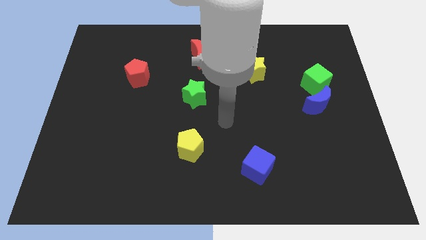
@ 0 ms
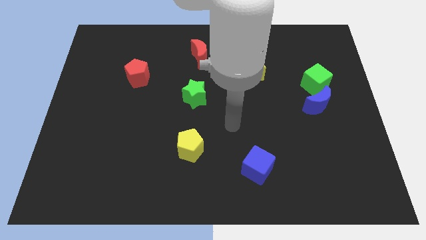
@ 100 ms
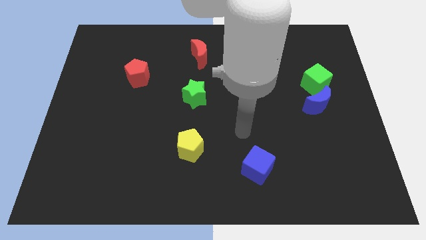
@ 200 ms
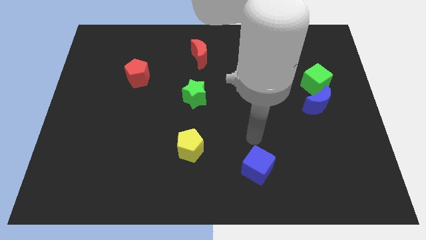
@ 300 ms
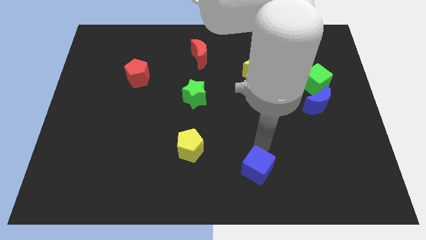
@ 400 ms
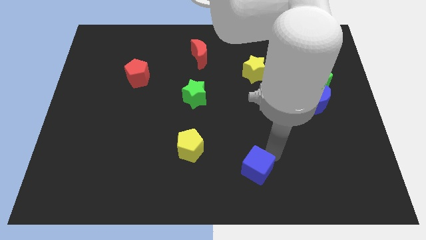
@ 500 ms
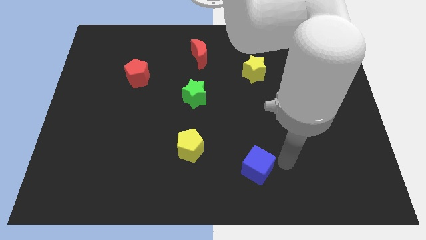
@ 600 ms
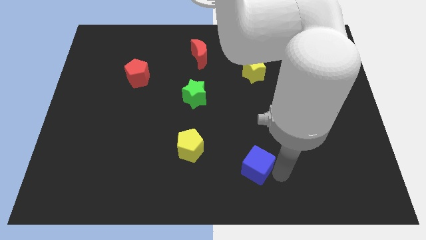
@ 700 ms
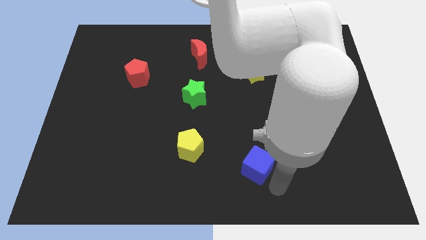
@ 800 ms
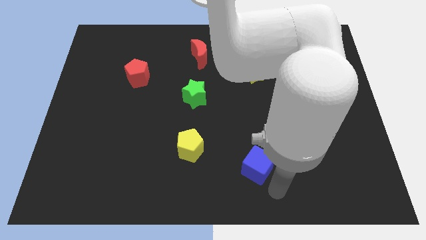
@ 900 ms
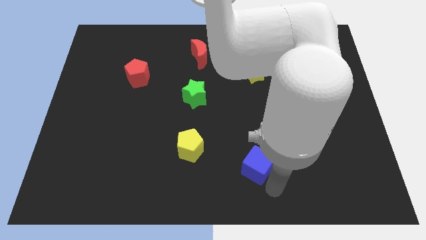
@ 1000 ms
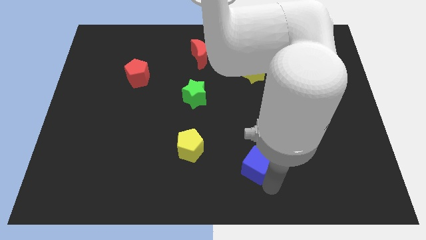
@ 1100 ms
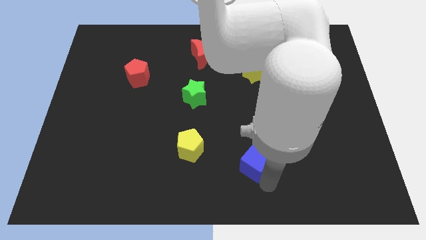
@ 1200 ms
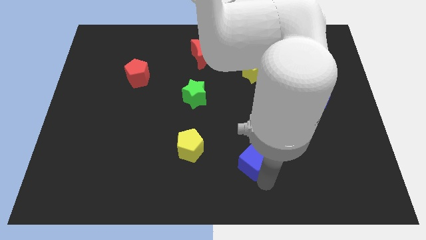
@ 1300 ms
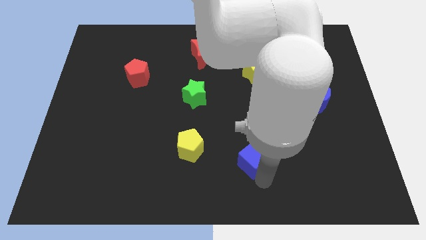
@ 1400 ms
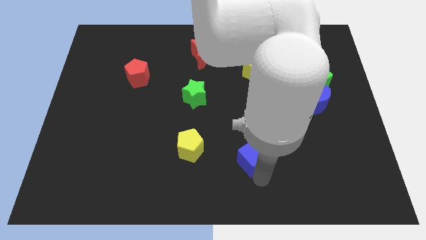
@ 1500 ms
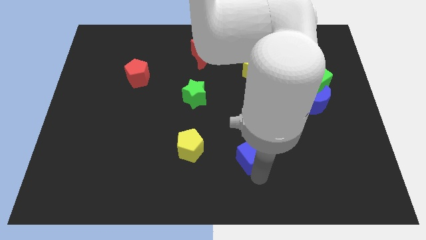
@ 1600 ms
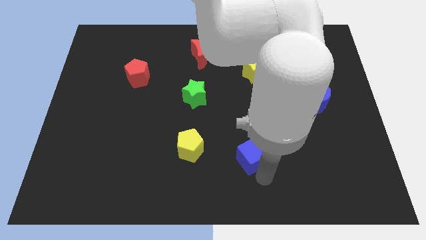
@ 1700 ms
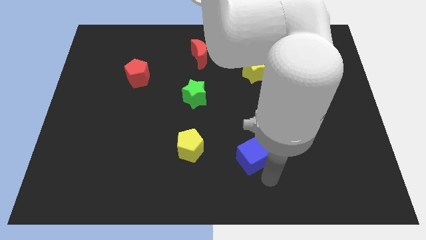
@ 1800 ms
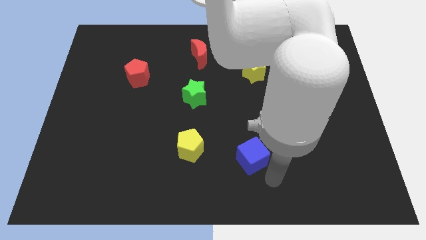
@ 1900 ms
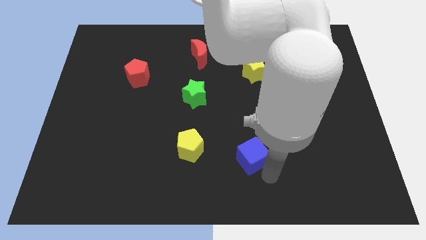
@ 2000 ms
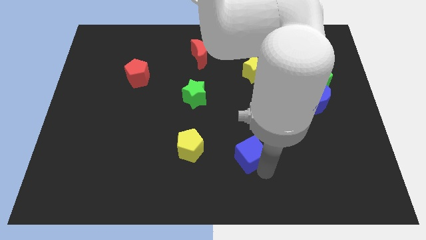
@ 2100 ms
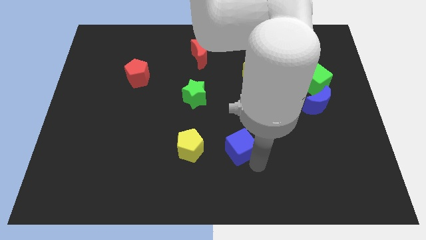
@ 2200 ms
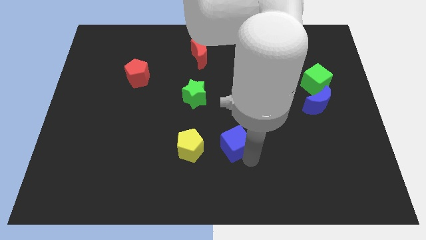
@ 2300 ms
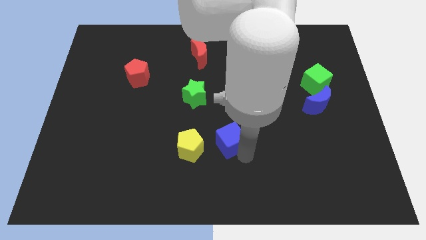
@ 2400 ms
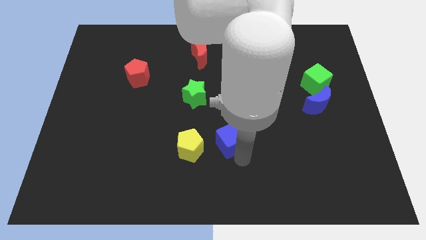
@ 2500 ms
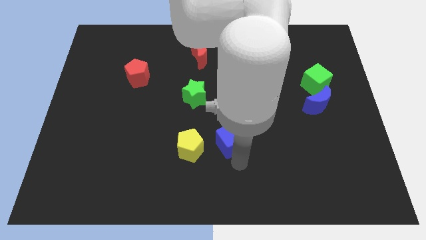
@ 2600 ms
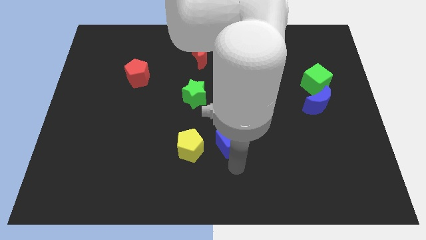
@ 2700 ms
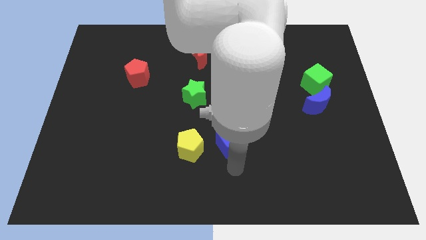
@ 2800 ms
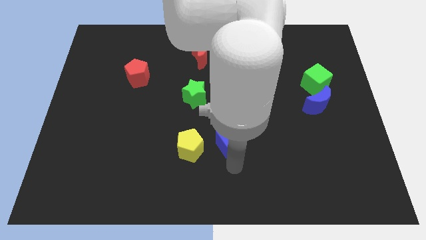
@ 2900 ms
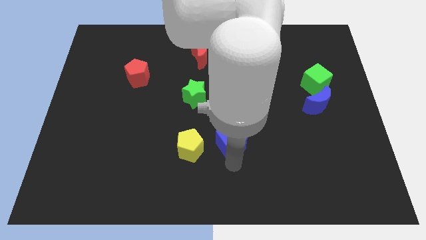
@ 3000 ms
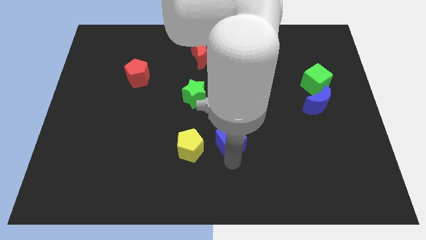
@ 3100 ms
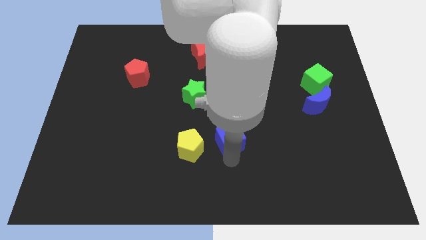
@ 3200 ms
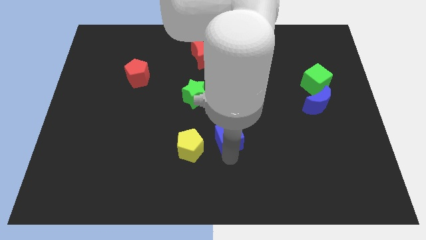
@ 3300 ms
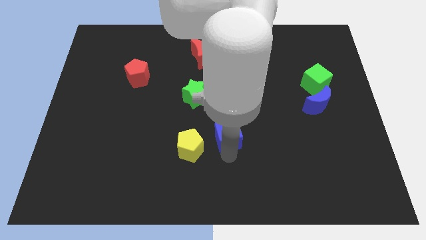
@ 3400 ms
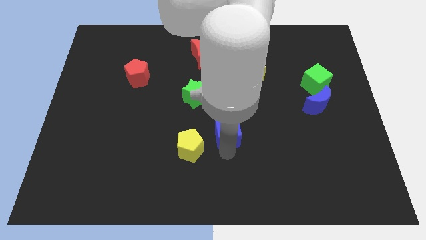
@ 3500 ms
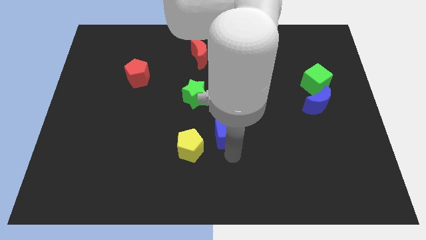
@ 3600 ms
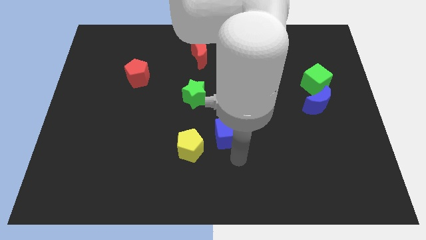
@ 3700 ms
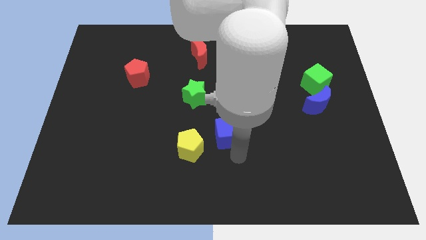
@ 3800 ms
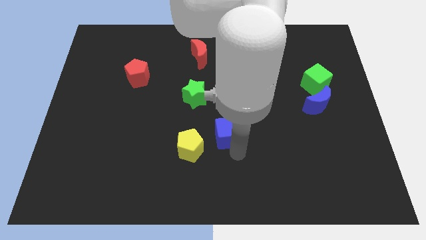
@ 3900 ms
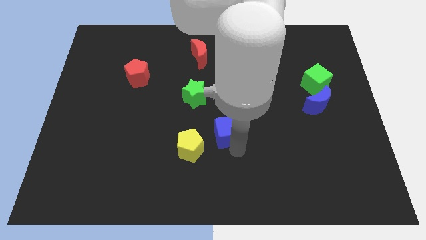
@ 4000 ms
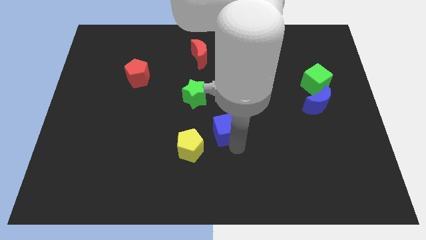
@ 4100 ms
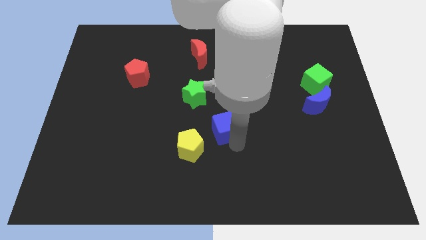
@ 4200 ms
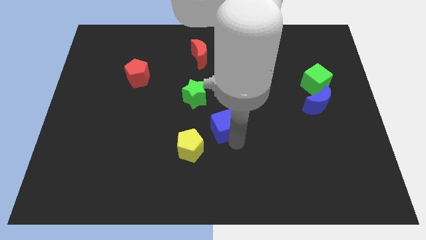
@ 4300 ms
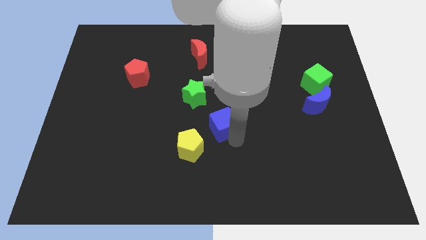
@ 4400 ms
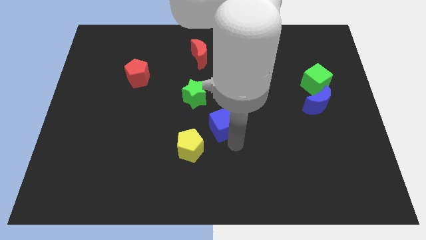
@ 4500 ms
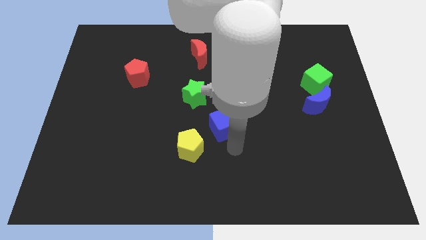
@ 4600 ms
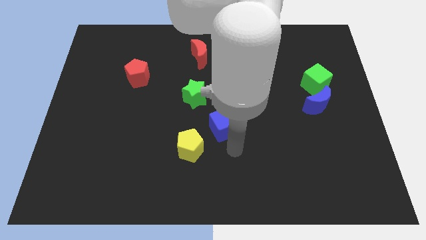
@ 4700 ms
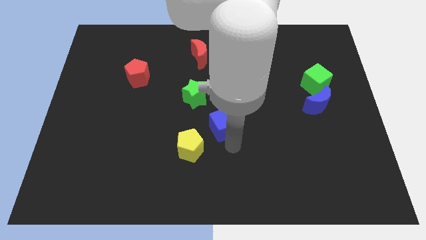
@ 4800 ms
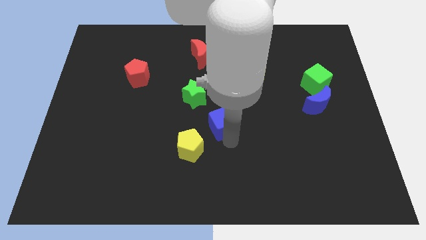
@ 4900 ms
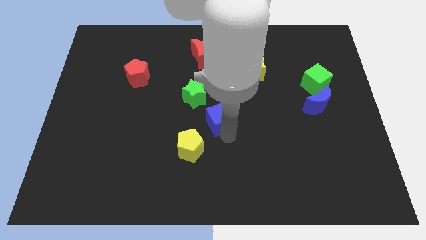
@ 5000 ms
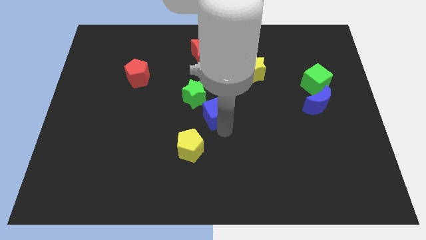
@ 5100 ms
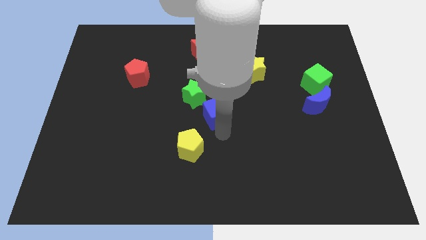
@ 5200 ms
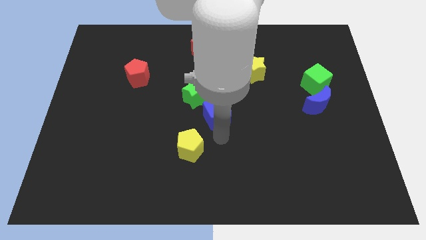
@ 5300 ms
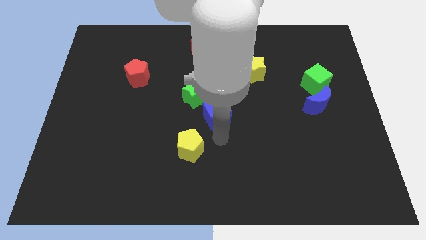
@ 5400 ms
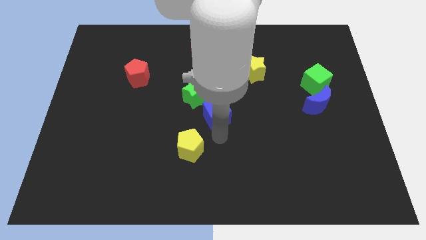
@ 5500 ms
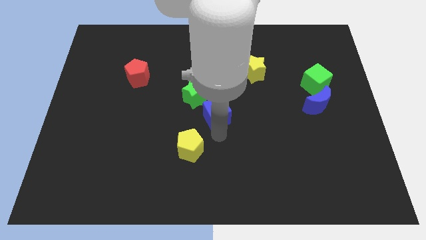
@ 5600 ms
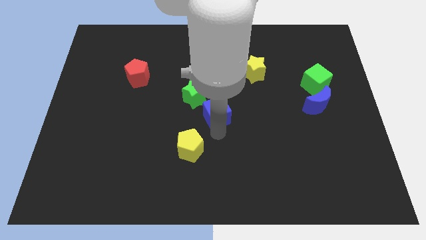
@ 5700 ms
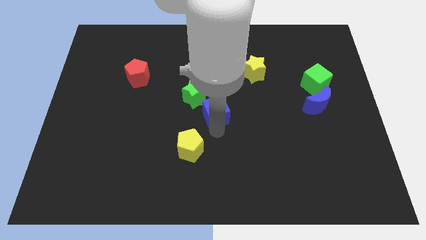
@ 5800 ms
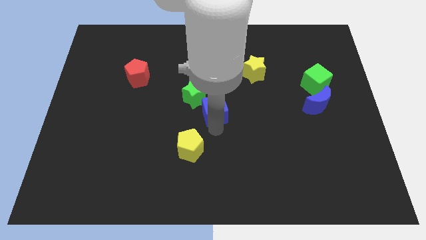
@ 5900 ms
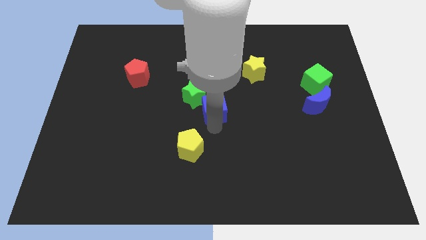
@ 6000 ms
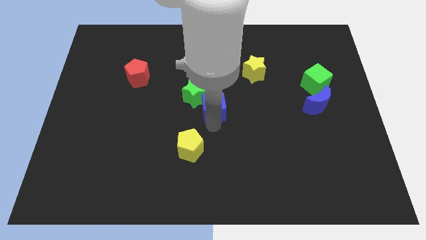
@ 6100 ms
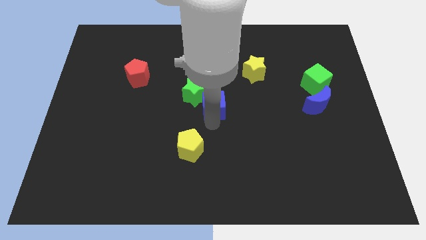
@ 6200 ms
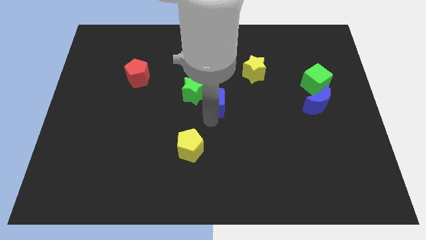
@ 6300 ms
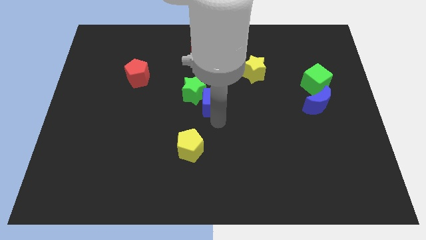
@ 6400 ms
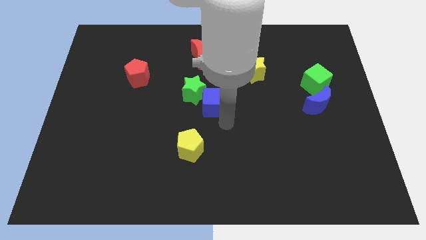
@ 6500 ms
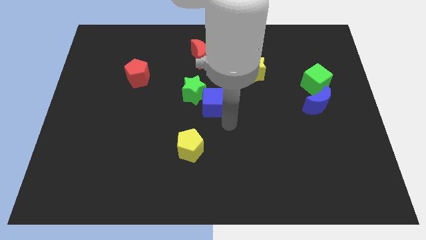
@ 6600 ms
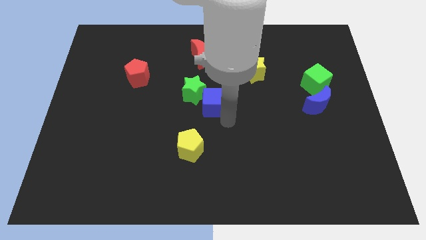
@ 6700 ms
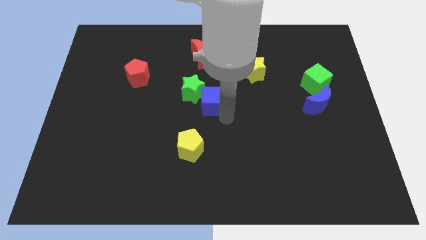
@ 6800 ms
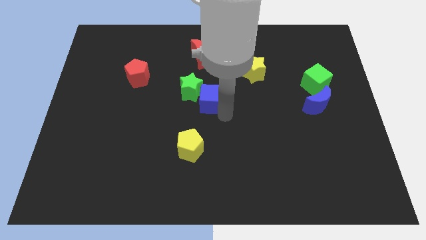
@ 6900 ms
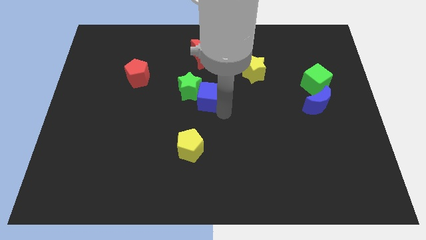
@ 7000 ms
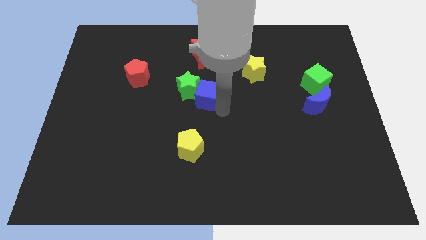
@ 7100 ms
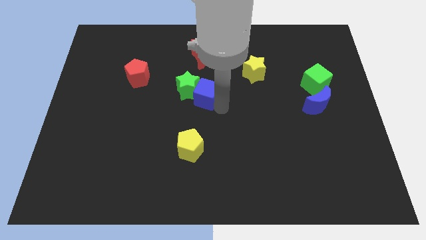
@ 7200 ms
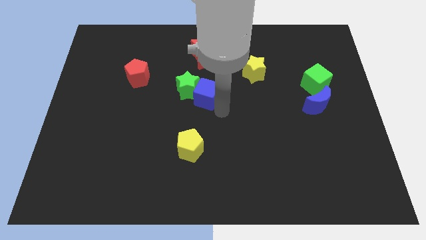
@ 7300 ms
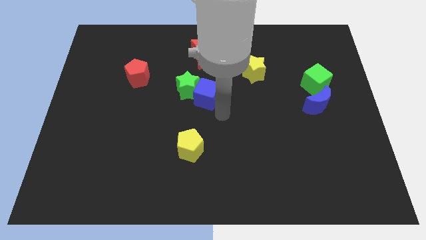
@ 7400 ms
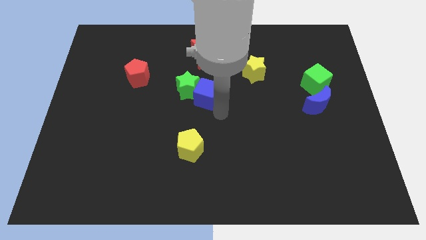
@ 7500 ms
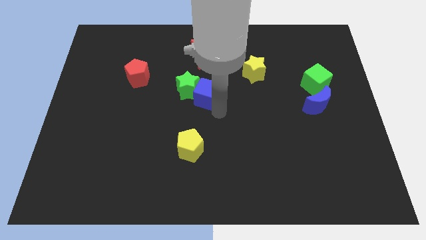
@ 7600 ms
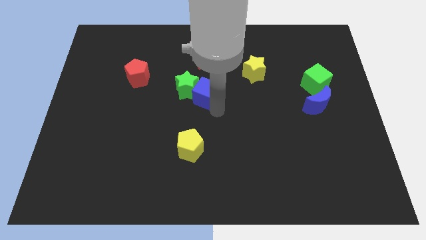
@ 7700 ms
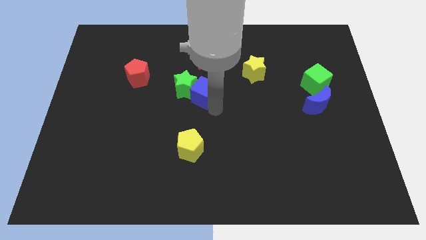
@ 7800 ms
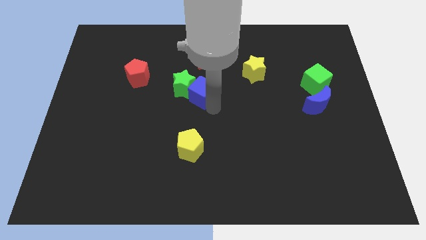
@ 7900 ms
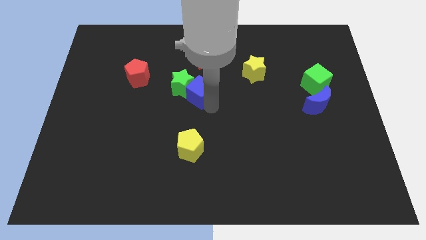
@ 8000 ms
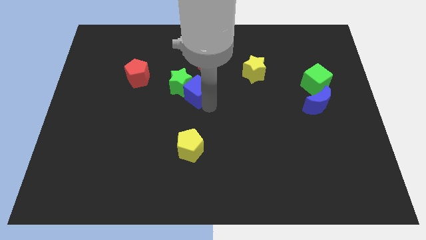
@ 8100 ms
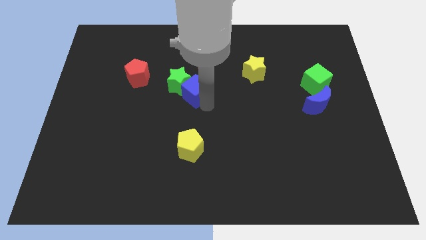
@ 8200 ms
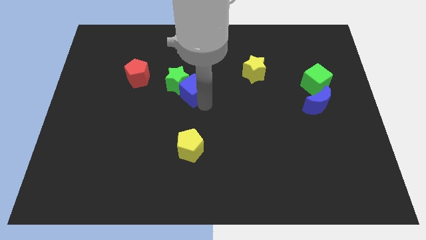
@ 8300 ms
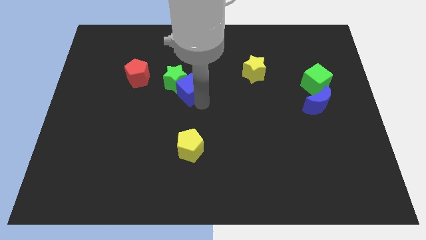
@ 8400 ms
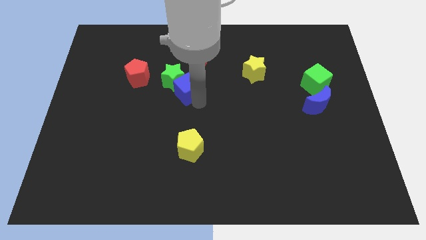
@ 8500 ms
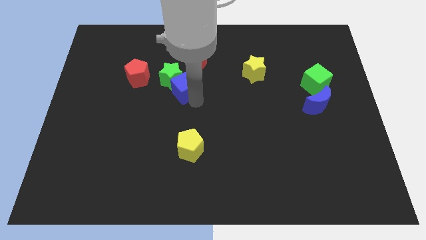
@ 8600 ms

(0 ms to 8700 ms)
move the blue cube to the right of the red pentagon
